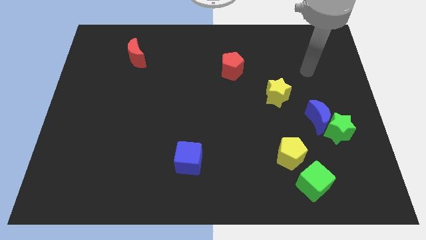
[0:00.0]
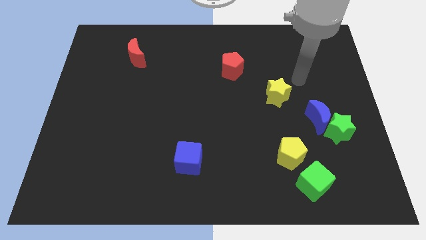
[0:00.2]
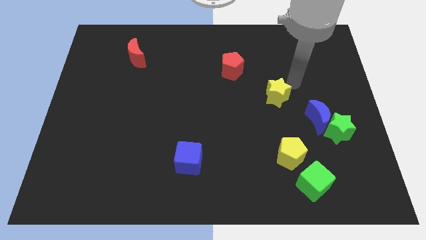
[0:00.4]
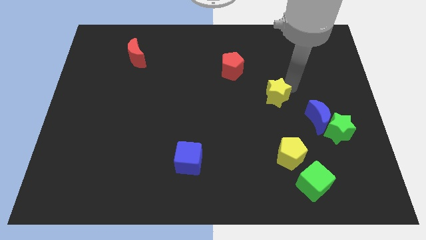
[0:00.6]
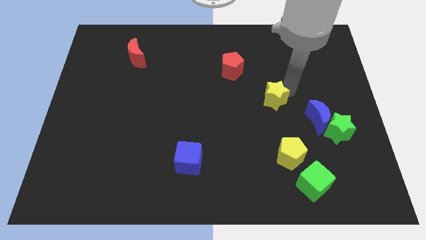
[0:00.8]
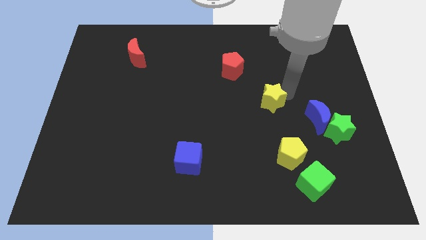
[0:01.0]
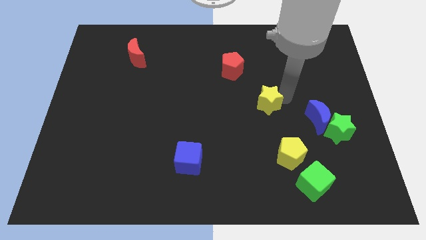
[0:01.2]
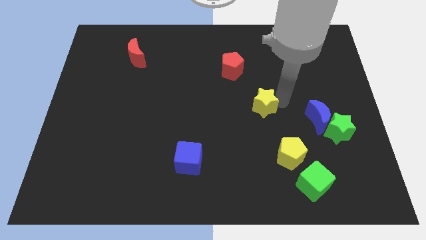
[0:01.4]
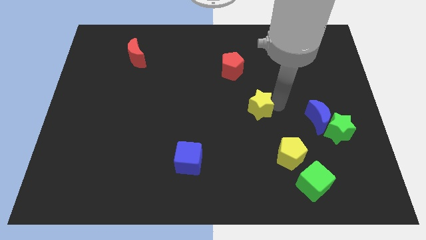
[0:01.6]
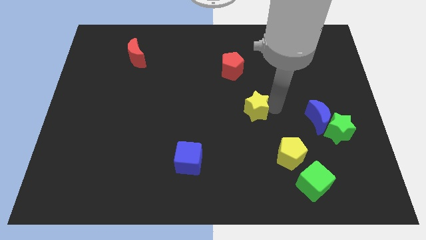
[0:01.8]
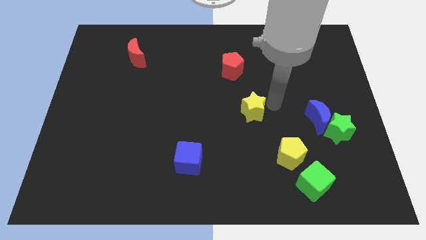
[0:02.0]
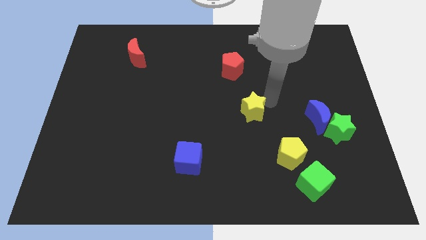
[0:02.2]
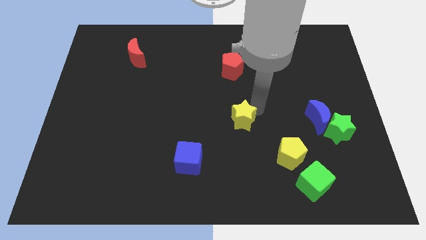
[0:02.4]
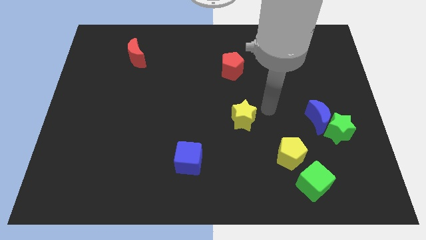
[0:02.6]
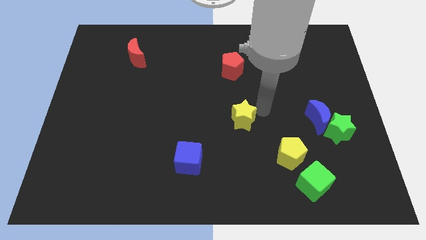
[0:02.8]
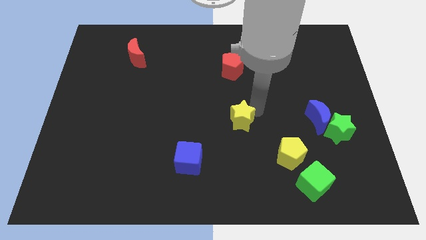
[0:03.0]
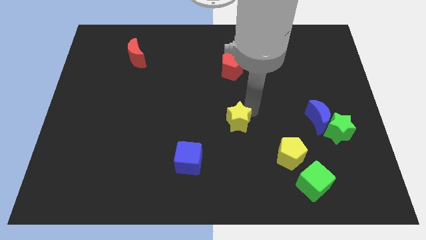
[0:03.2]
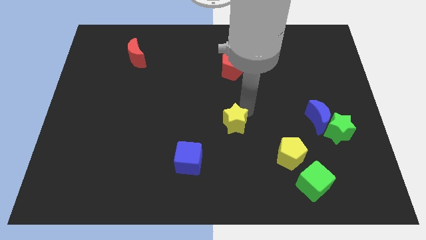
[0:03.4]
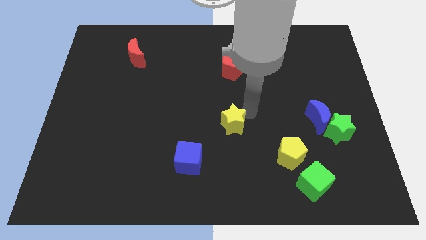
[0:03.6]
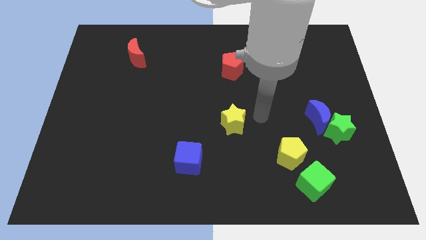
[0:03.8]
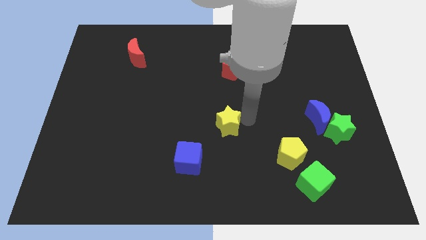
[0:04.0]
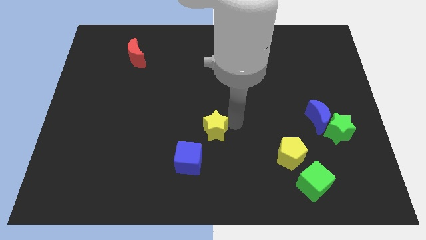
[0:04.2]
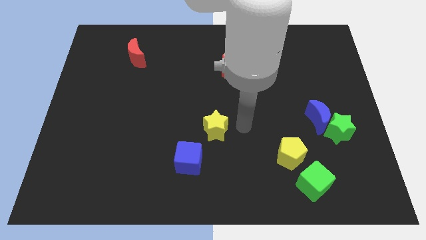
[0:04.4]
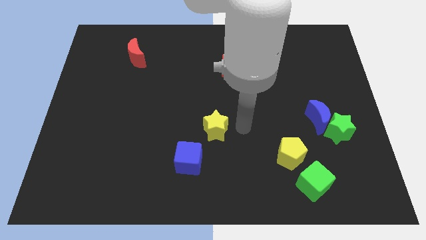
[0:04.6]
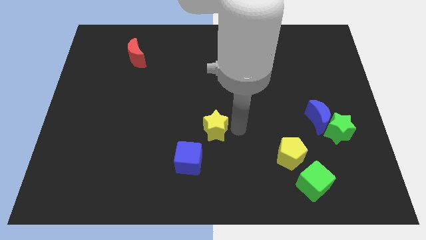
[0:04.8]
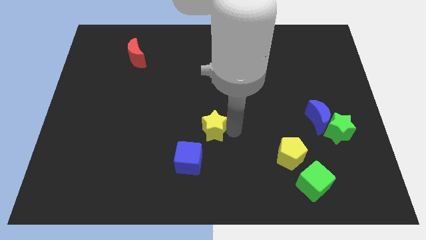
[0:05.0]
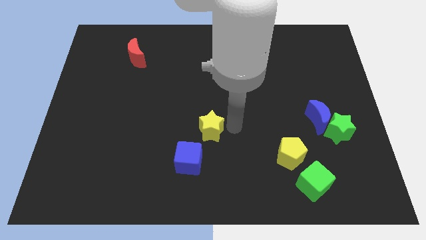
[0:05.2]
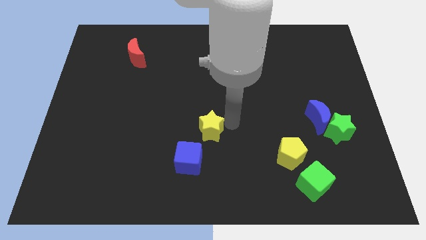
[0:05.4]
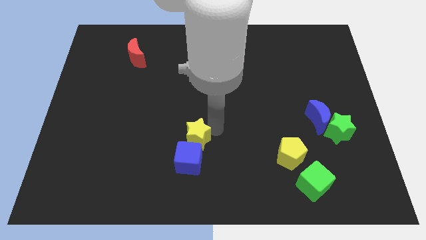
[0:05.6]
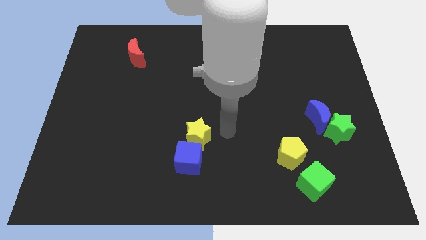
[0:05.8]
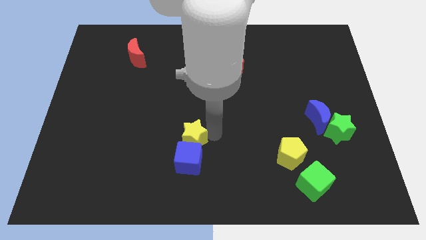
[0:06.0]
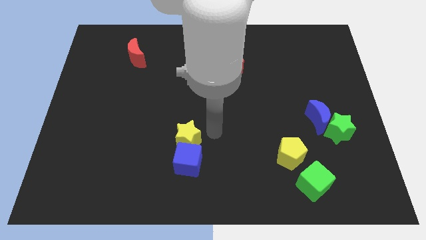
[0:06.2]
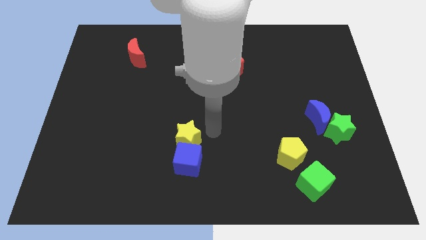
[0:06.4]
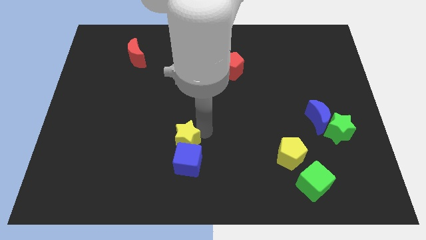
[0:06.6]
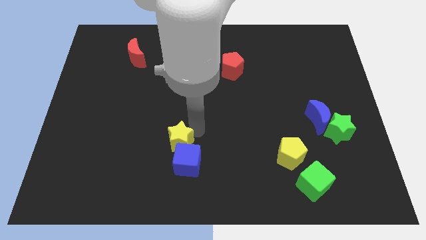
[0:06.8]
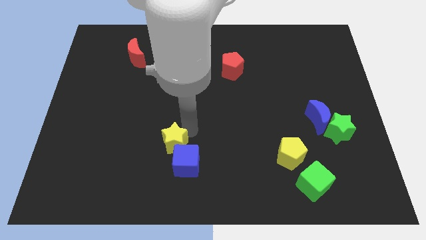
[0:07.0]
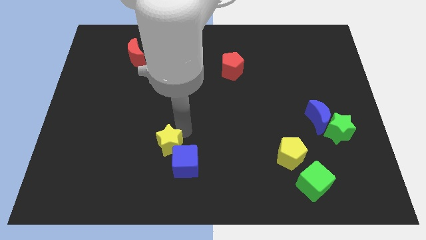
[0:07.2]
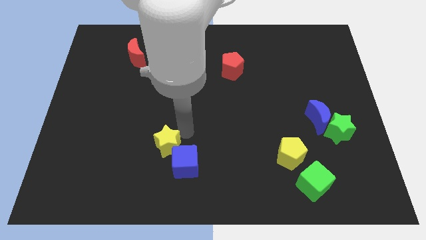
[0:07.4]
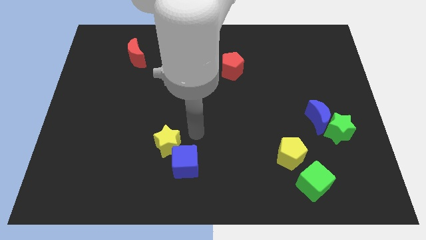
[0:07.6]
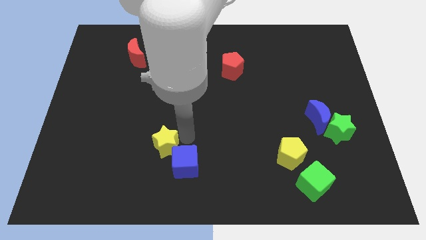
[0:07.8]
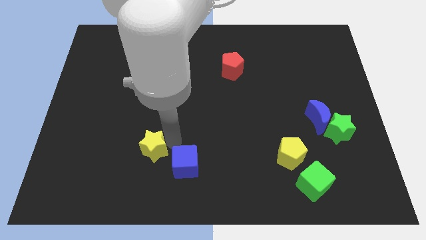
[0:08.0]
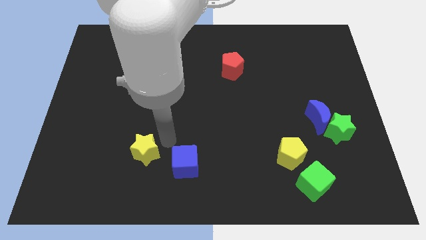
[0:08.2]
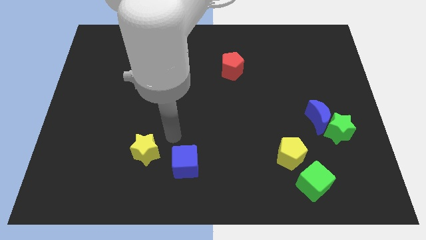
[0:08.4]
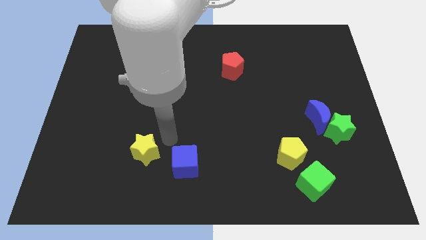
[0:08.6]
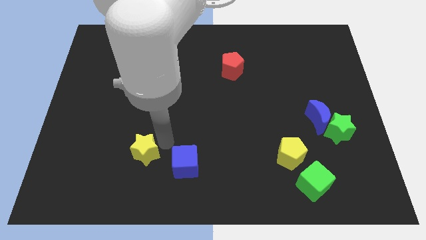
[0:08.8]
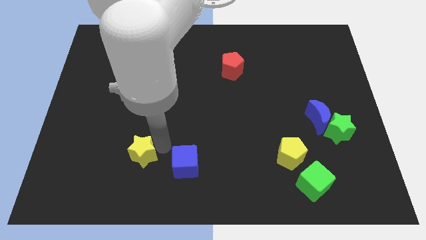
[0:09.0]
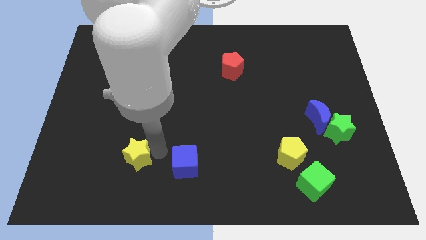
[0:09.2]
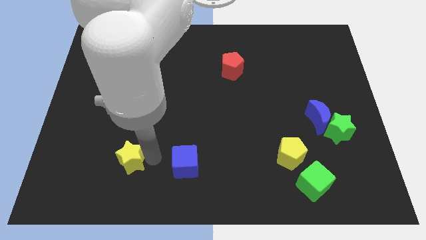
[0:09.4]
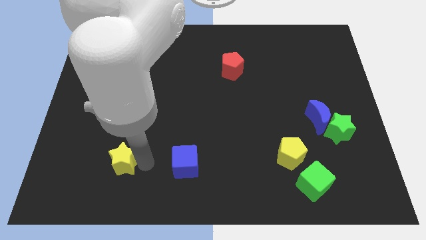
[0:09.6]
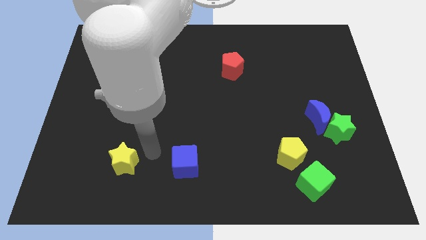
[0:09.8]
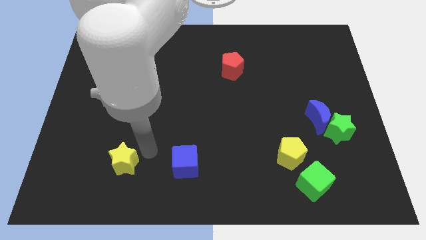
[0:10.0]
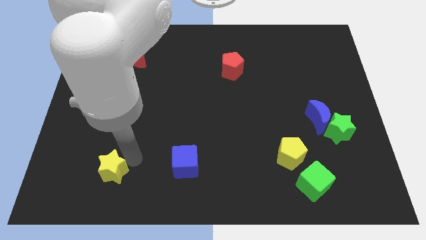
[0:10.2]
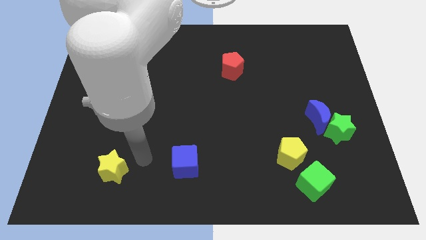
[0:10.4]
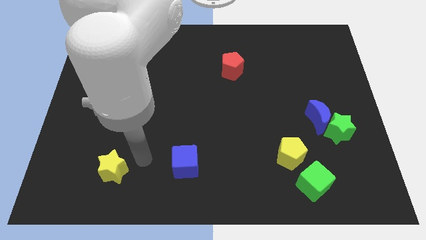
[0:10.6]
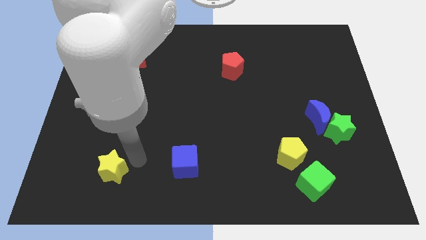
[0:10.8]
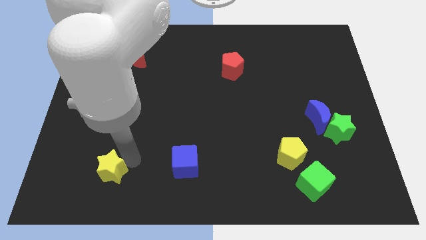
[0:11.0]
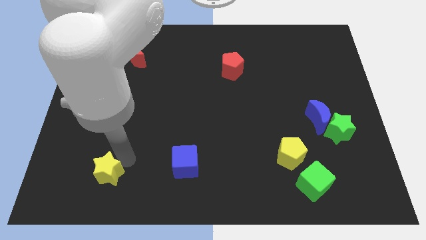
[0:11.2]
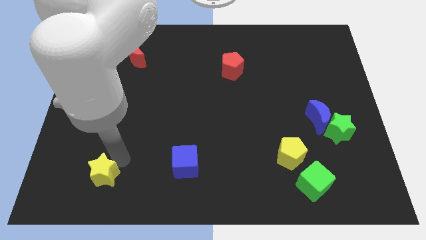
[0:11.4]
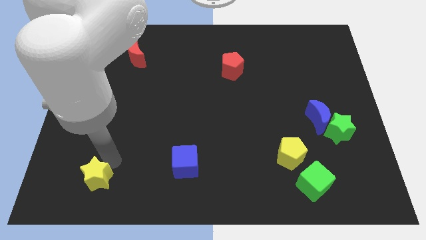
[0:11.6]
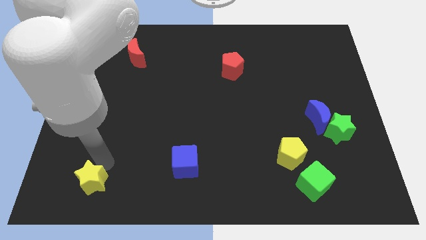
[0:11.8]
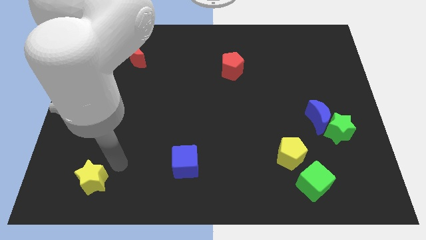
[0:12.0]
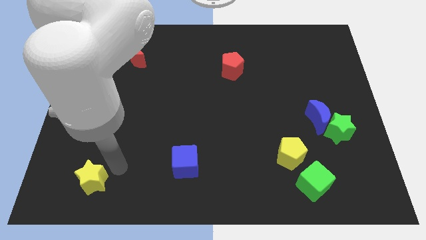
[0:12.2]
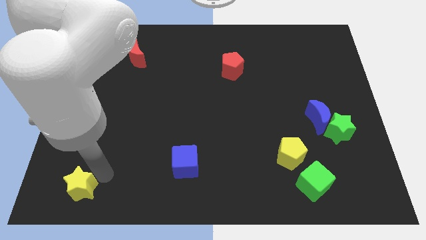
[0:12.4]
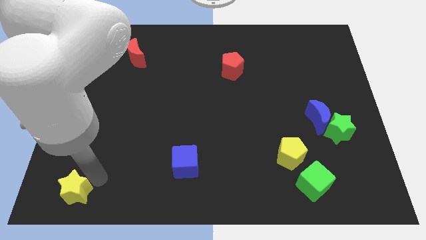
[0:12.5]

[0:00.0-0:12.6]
slide the yellow star to the bottom left corner
